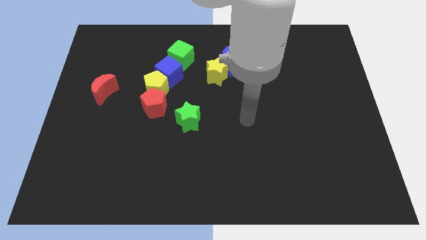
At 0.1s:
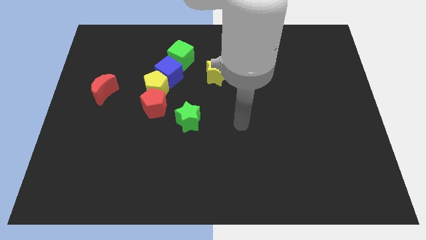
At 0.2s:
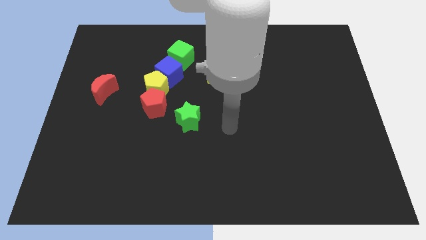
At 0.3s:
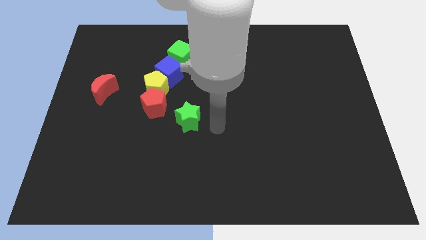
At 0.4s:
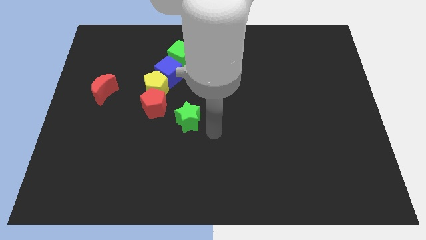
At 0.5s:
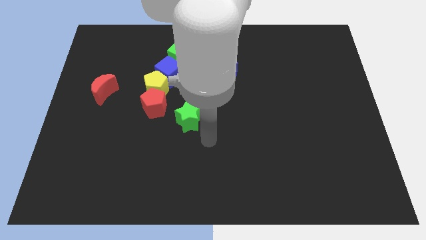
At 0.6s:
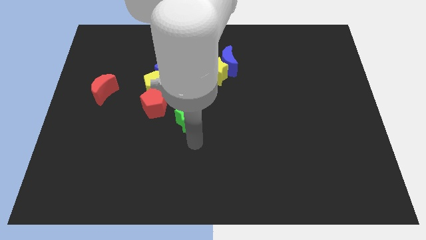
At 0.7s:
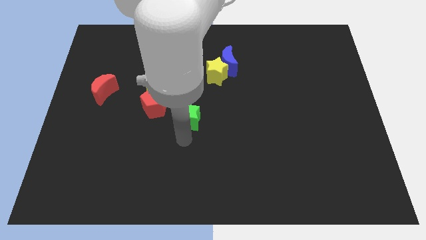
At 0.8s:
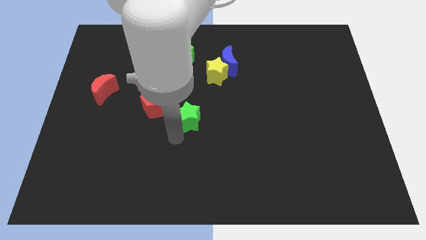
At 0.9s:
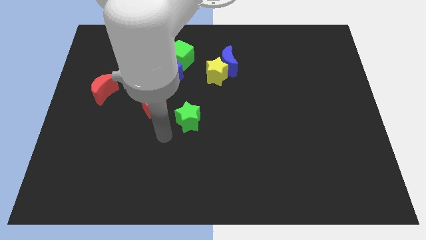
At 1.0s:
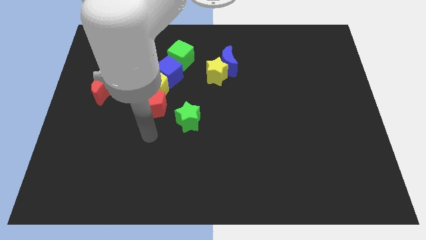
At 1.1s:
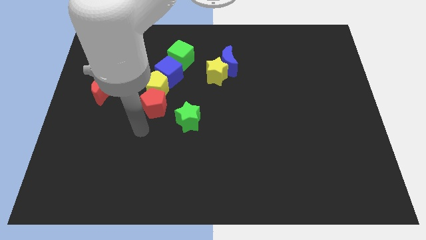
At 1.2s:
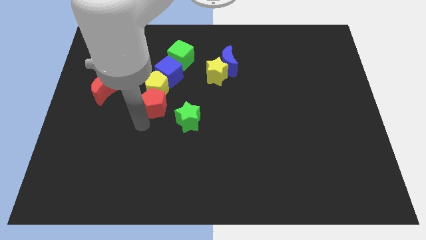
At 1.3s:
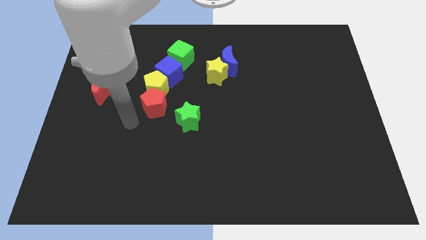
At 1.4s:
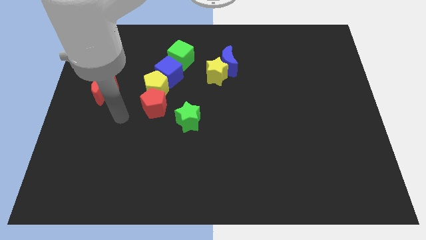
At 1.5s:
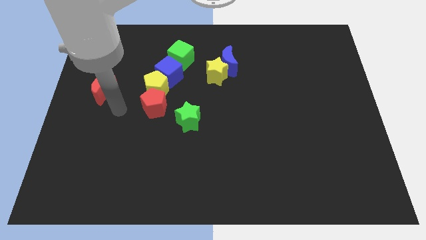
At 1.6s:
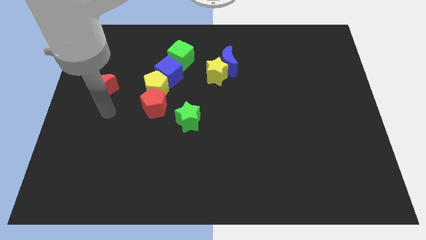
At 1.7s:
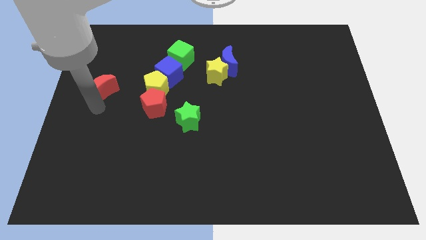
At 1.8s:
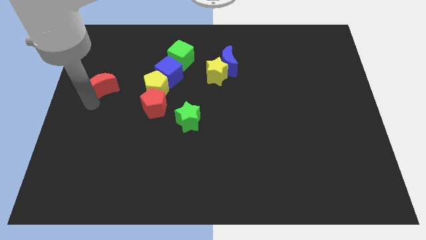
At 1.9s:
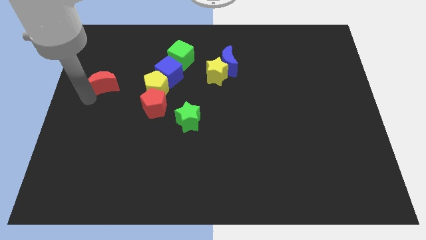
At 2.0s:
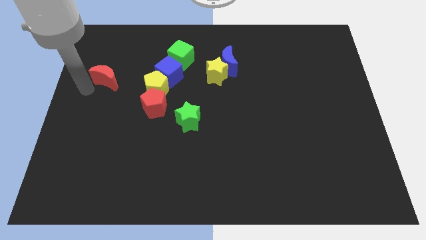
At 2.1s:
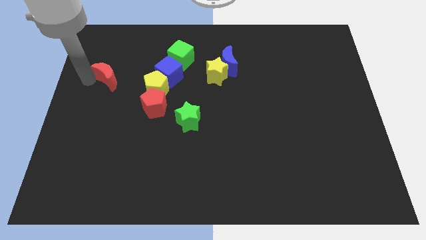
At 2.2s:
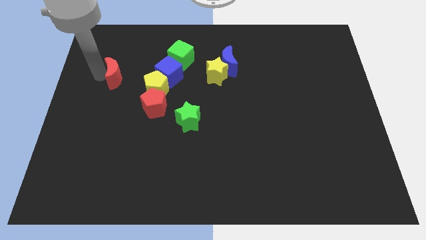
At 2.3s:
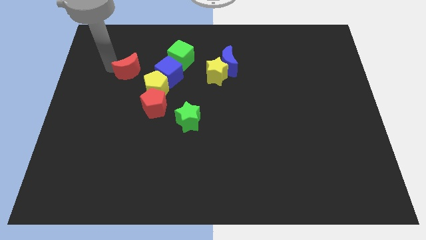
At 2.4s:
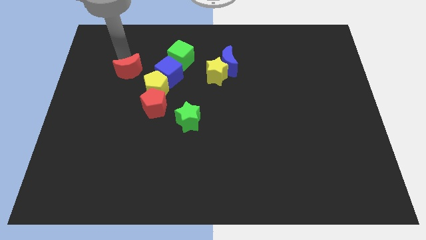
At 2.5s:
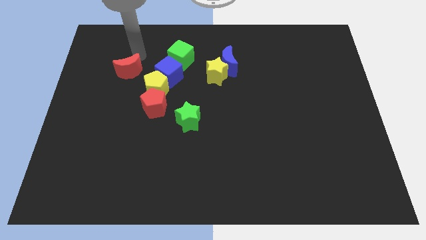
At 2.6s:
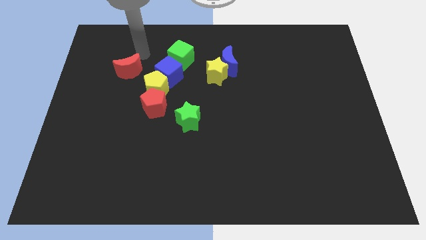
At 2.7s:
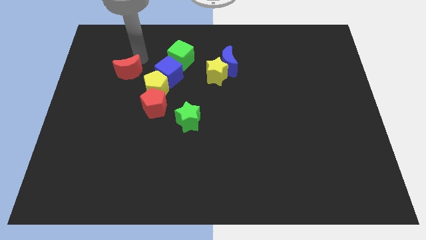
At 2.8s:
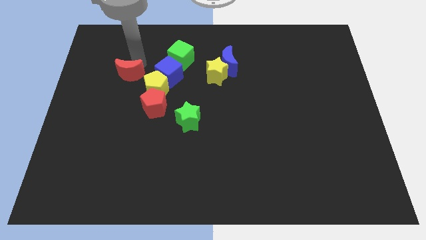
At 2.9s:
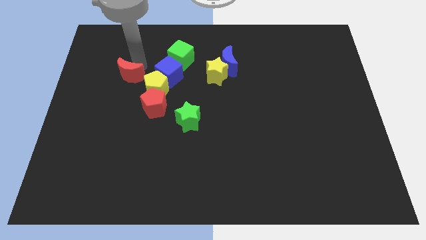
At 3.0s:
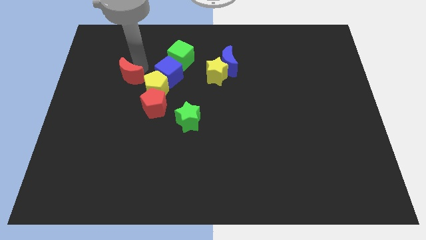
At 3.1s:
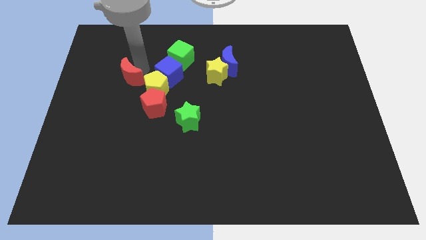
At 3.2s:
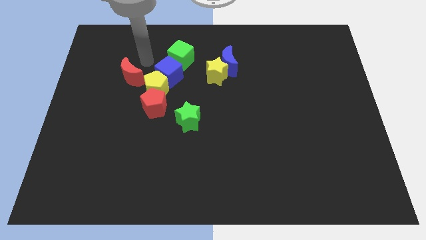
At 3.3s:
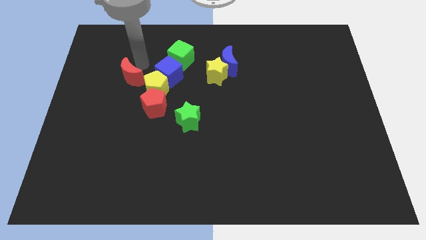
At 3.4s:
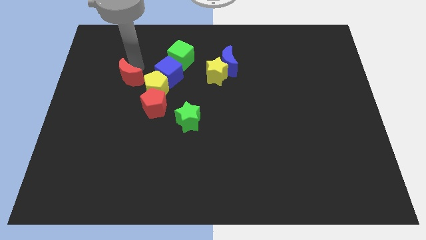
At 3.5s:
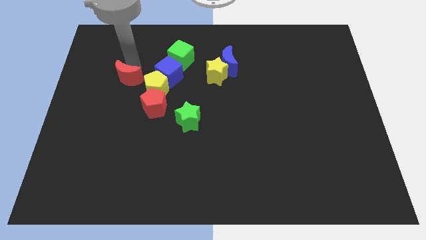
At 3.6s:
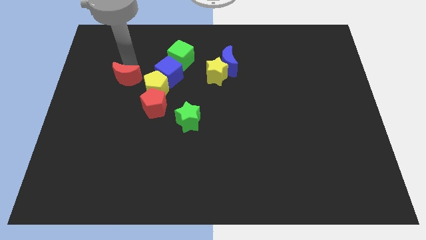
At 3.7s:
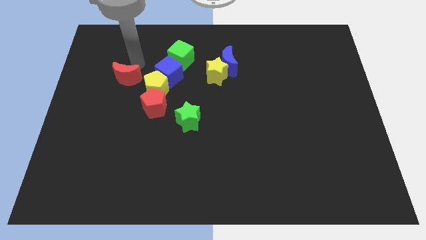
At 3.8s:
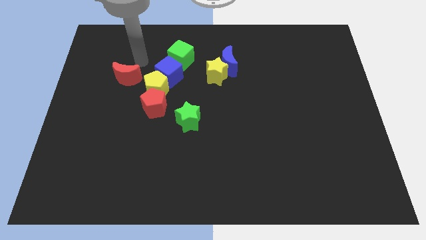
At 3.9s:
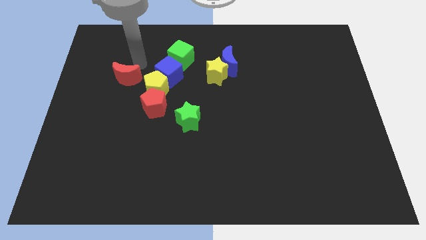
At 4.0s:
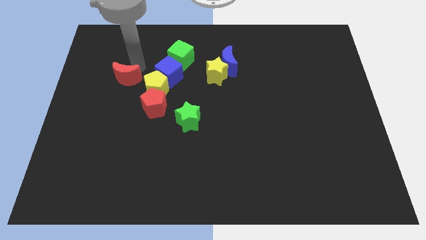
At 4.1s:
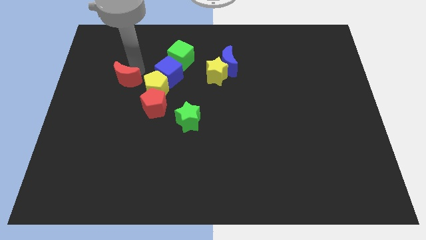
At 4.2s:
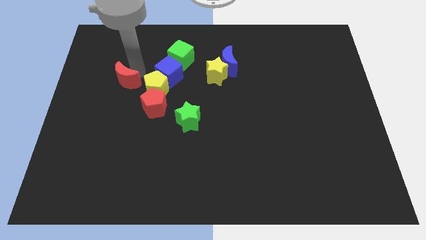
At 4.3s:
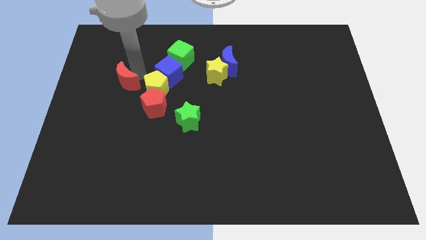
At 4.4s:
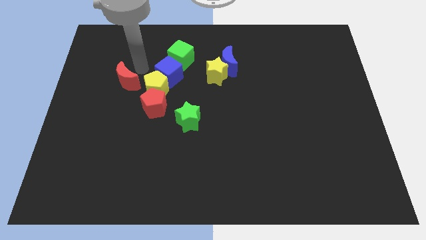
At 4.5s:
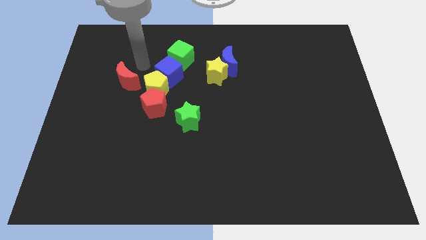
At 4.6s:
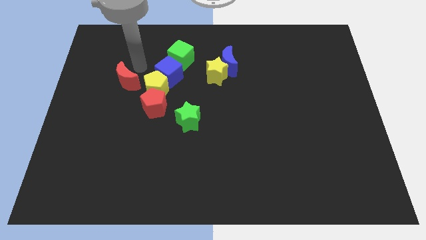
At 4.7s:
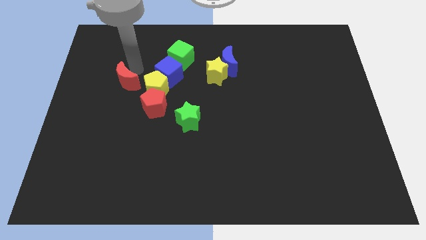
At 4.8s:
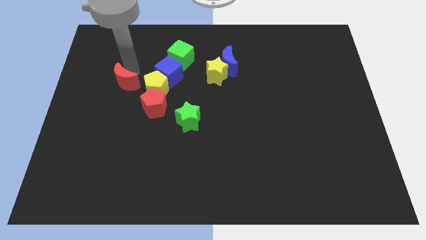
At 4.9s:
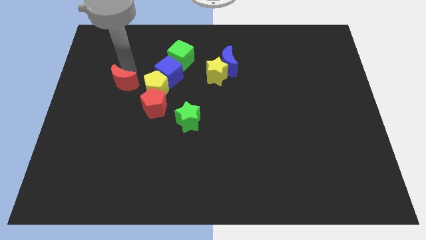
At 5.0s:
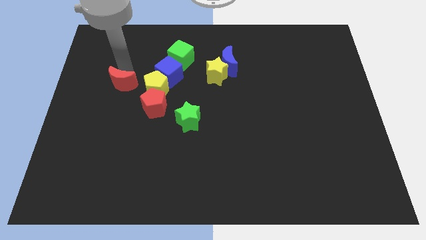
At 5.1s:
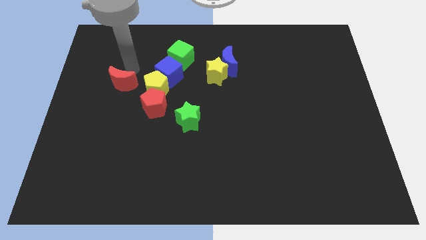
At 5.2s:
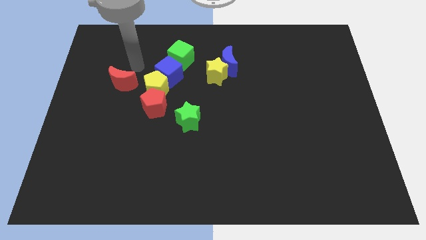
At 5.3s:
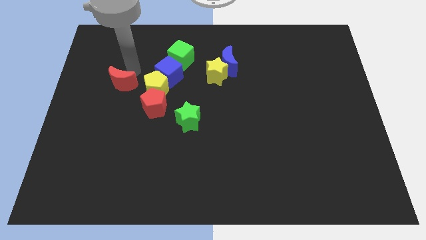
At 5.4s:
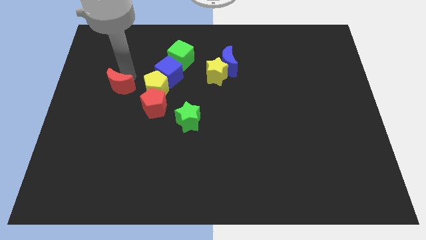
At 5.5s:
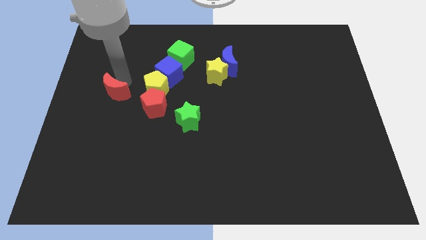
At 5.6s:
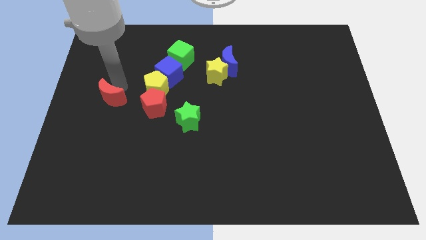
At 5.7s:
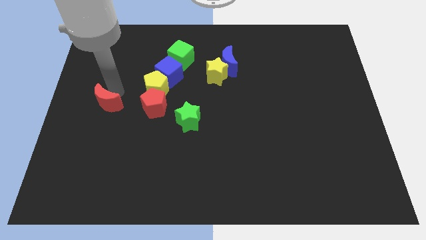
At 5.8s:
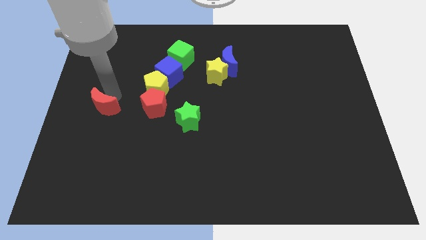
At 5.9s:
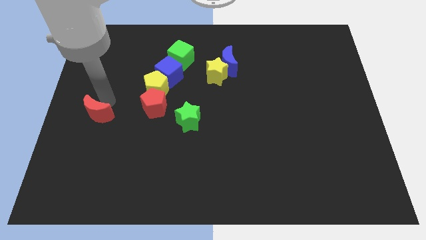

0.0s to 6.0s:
slightly push the red moon down

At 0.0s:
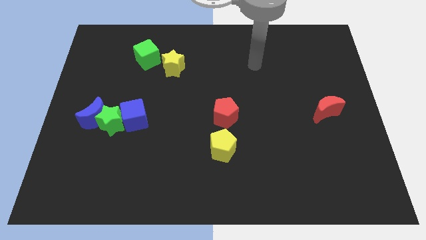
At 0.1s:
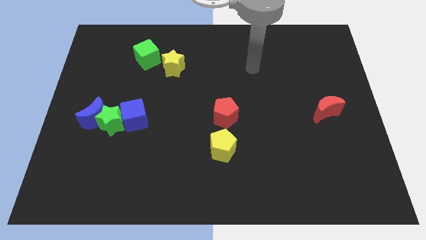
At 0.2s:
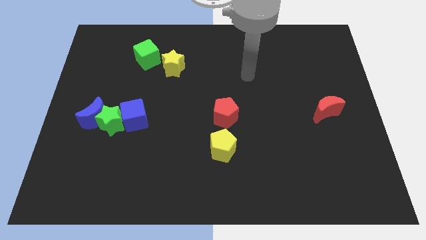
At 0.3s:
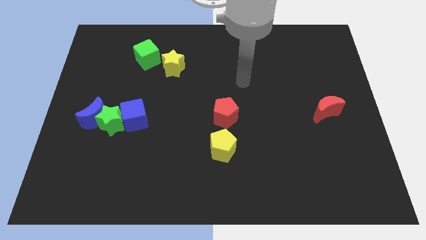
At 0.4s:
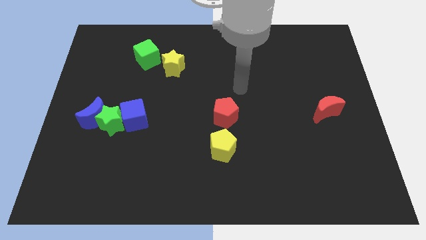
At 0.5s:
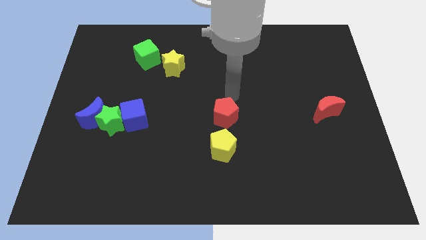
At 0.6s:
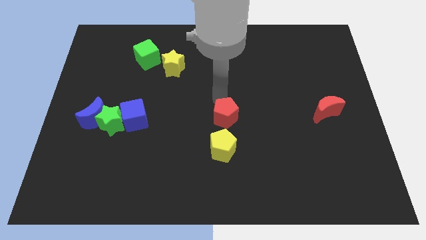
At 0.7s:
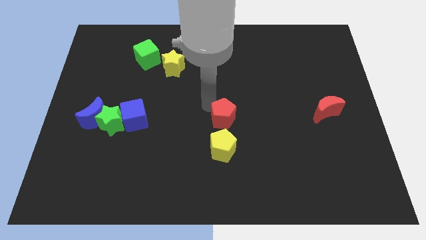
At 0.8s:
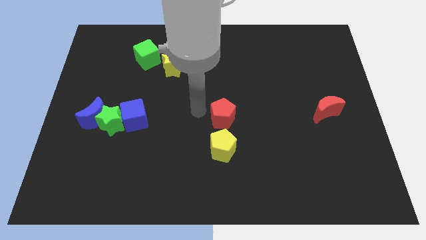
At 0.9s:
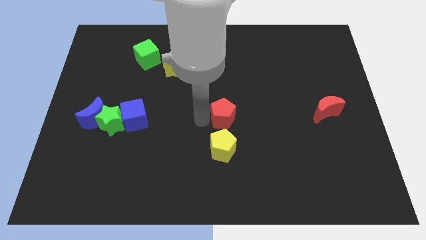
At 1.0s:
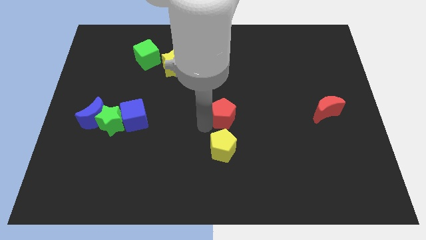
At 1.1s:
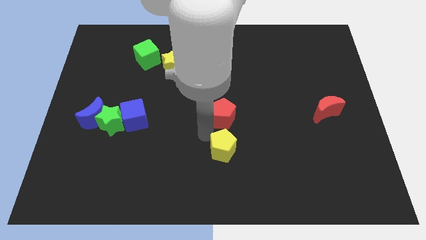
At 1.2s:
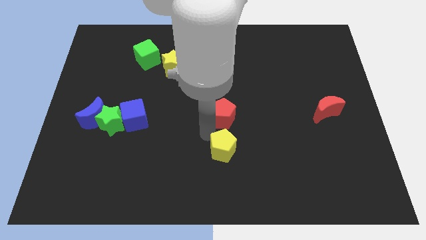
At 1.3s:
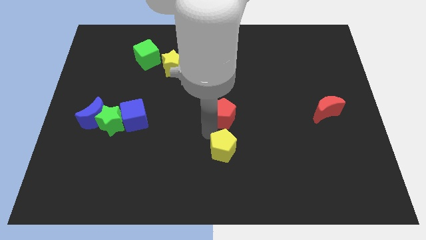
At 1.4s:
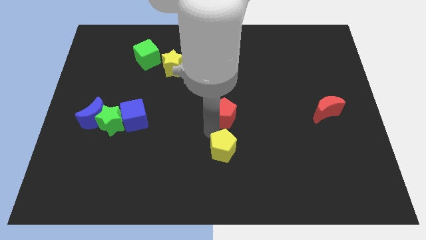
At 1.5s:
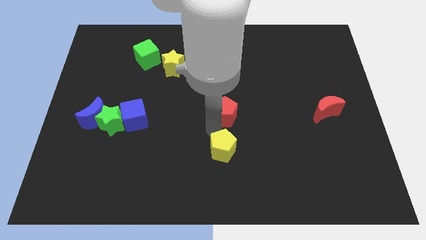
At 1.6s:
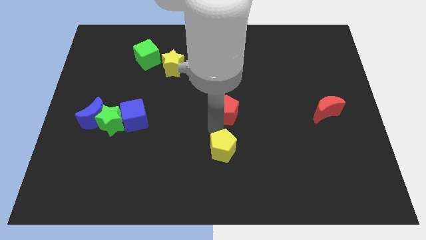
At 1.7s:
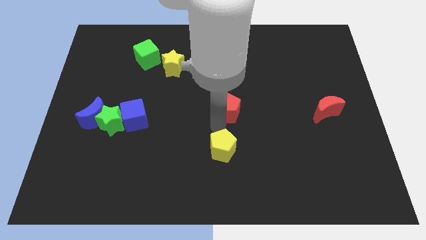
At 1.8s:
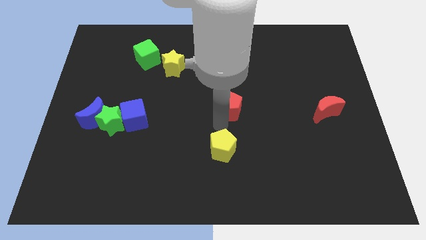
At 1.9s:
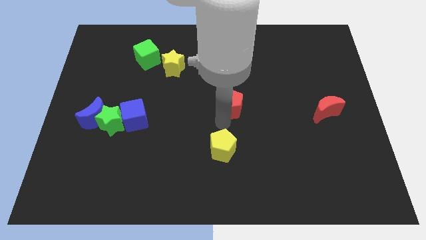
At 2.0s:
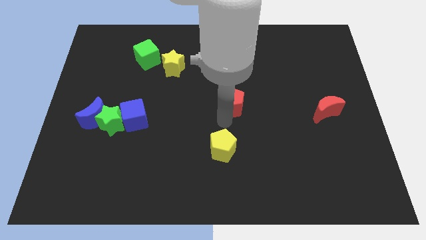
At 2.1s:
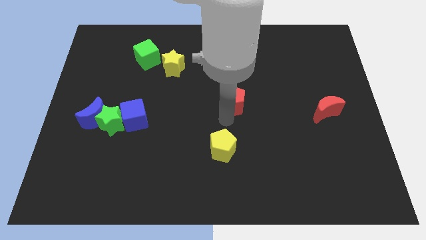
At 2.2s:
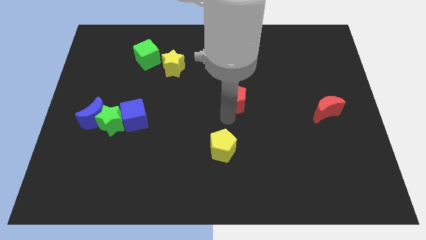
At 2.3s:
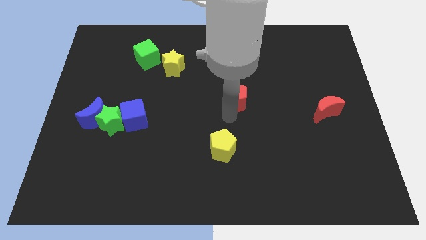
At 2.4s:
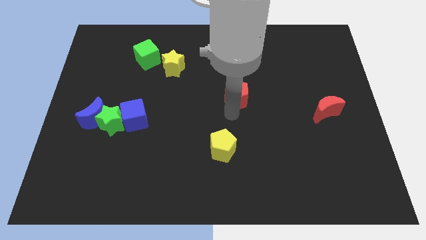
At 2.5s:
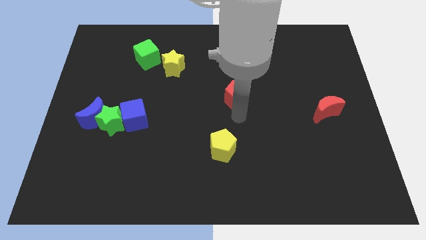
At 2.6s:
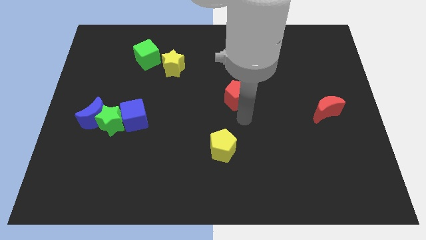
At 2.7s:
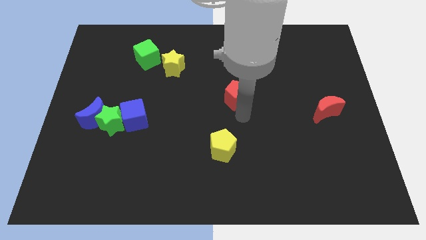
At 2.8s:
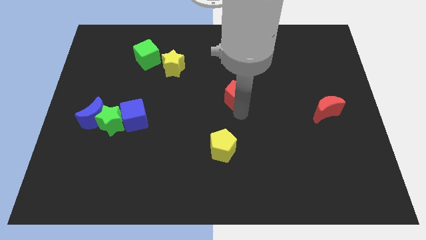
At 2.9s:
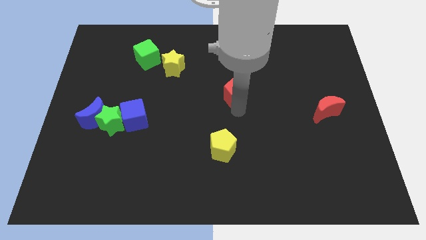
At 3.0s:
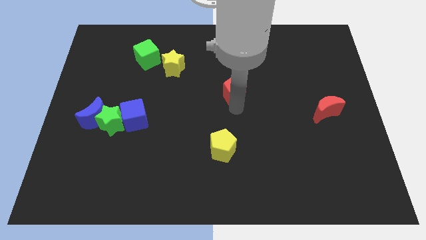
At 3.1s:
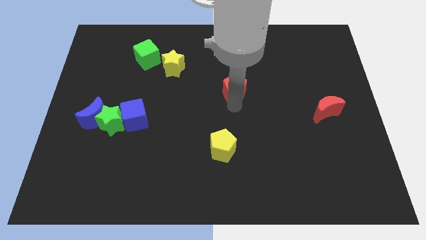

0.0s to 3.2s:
slightly push the red pentagon up
